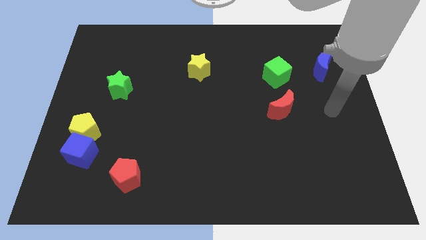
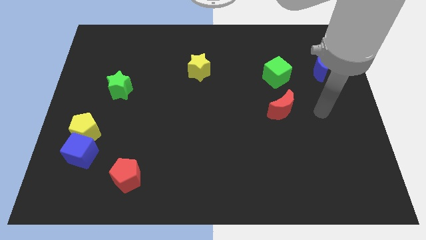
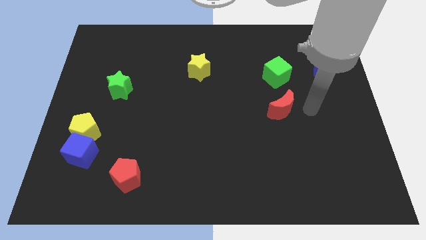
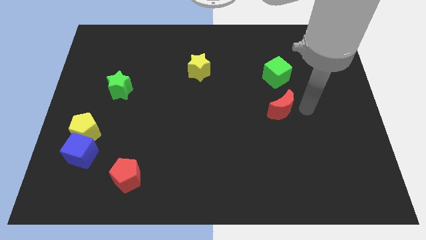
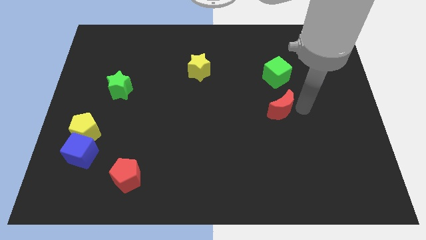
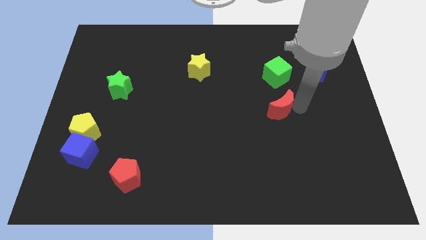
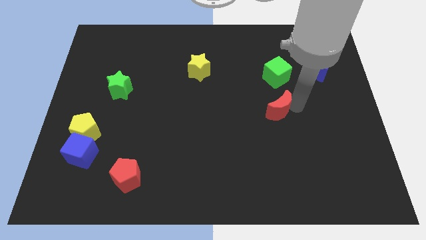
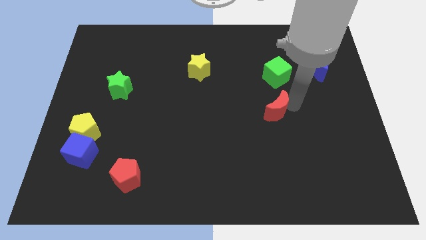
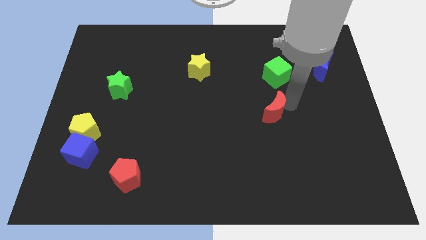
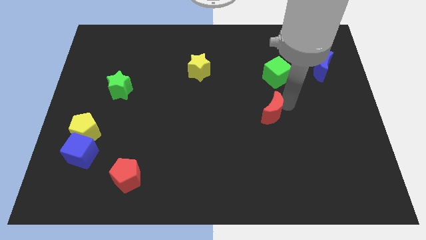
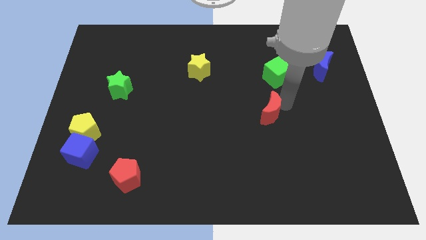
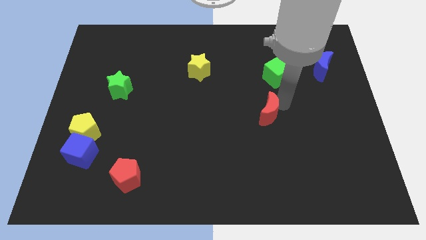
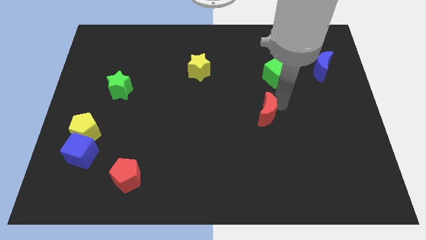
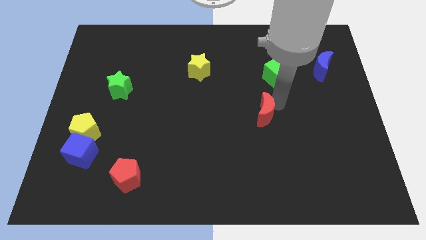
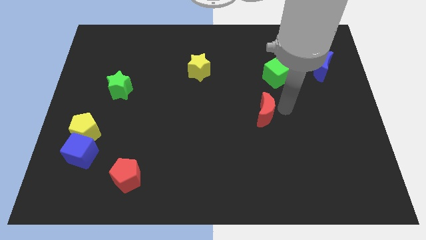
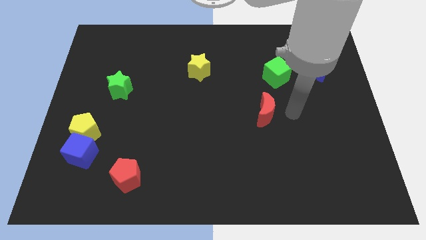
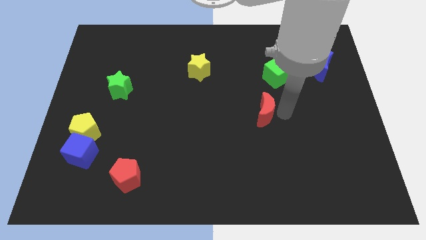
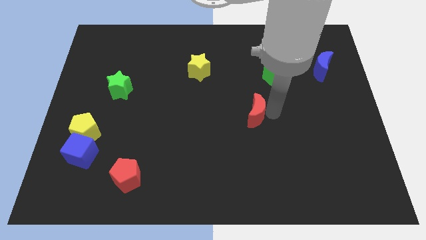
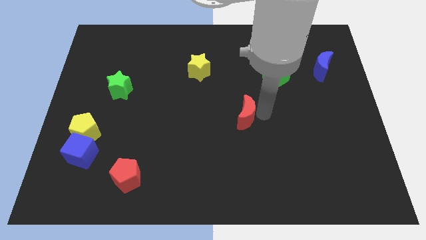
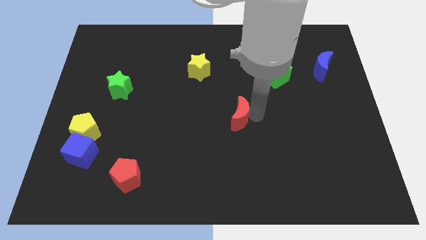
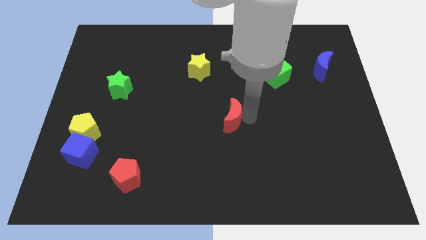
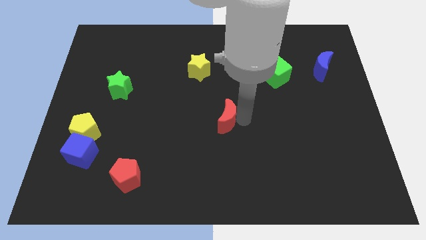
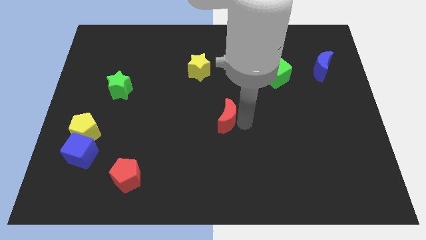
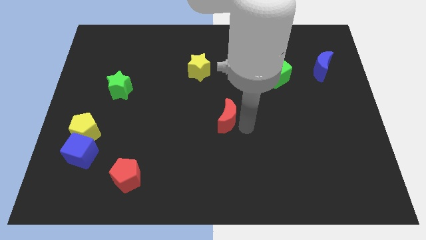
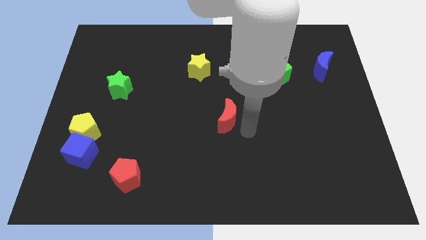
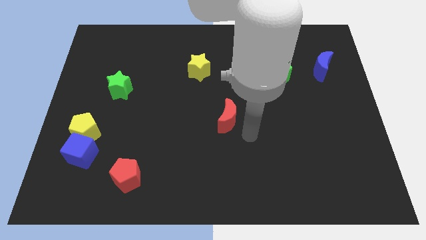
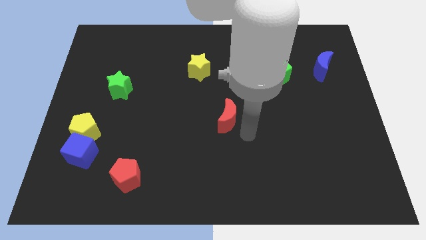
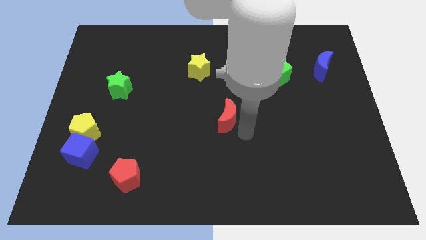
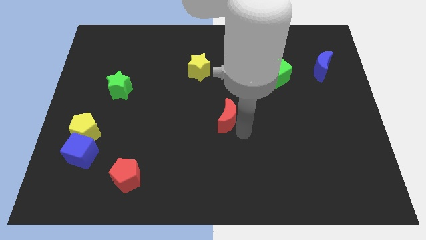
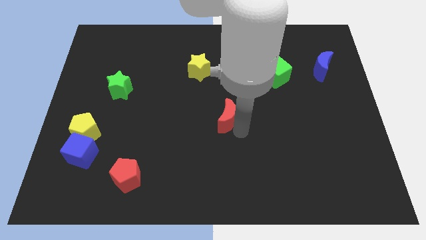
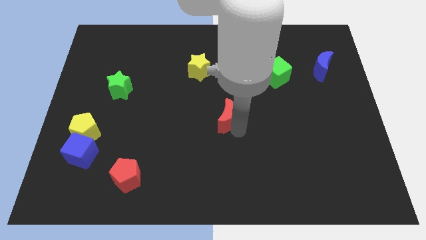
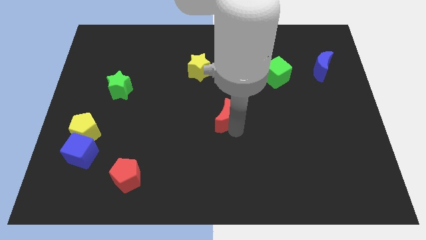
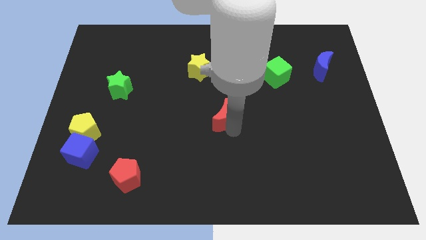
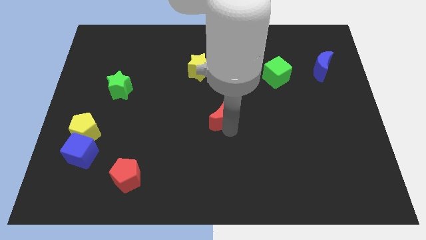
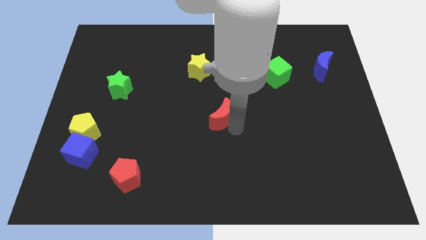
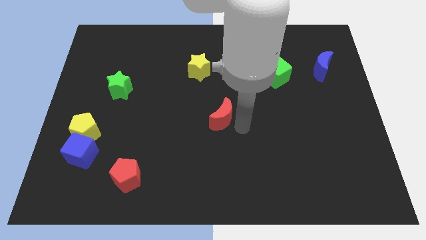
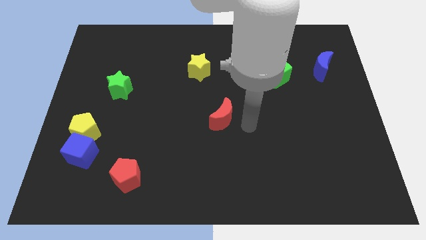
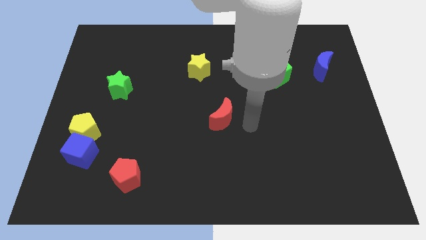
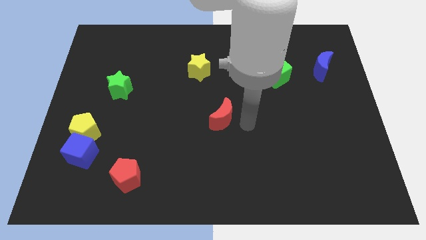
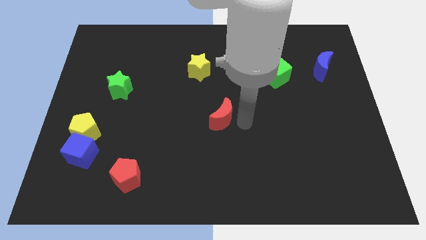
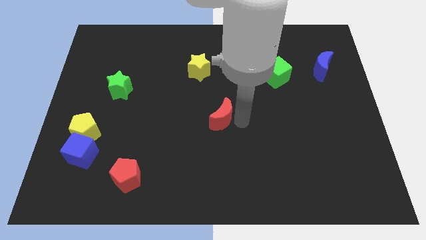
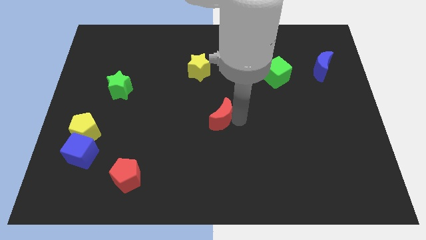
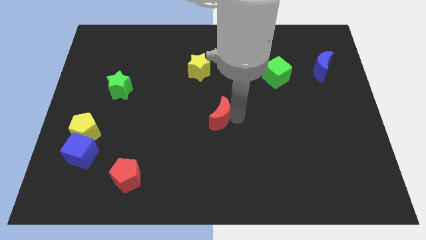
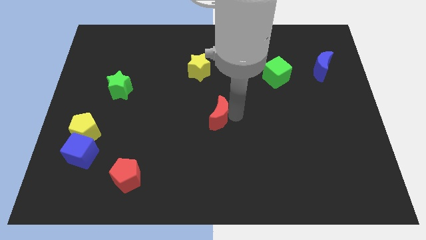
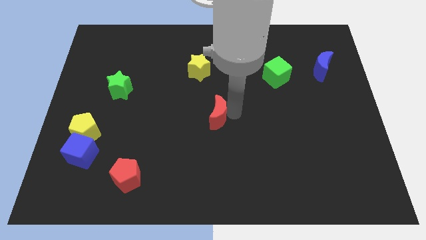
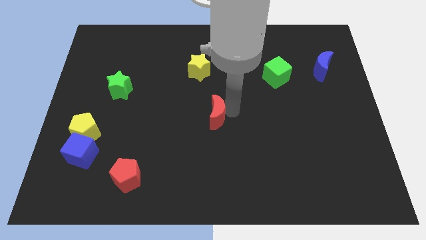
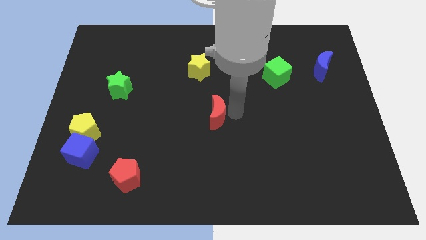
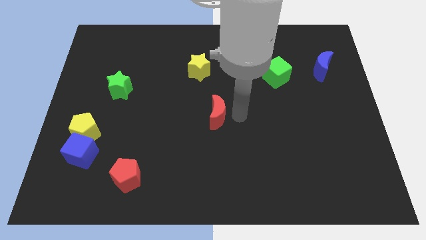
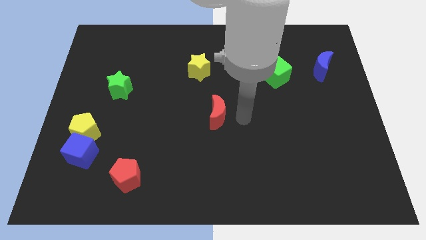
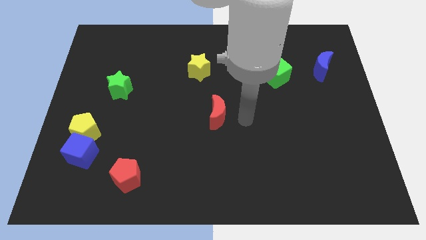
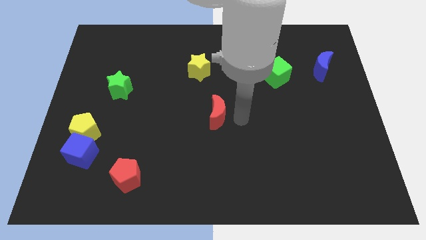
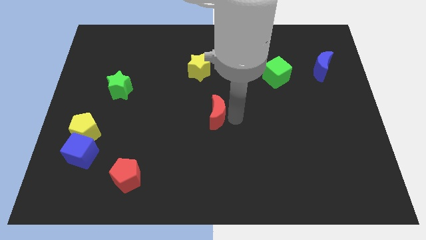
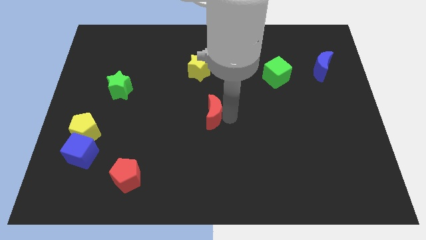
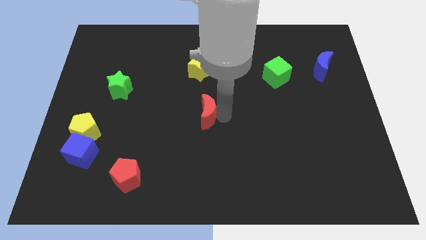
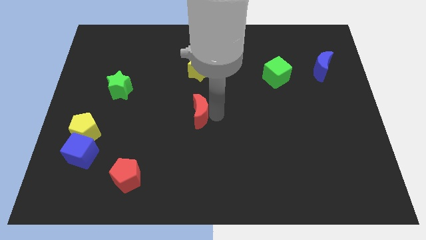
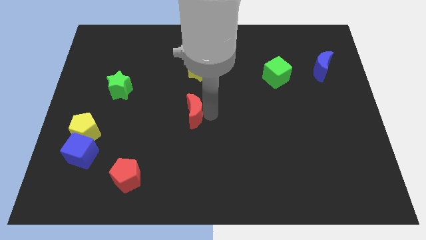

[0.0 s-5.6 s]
push the red moon to the left

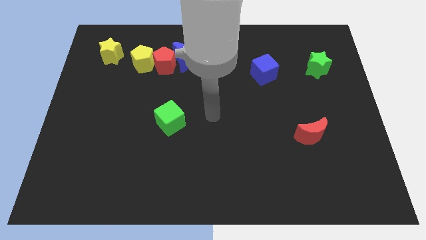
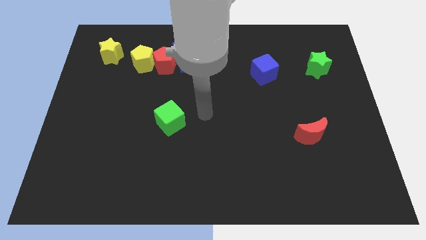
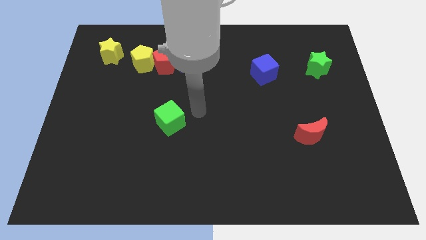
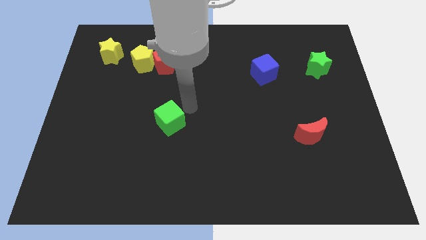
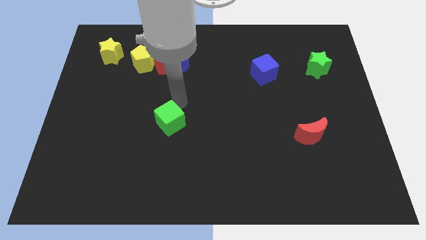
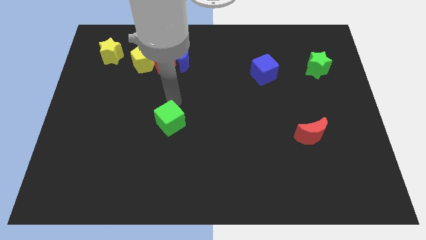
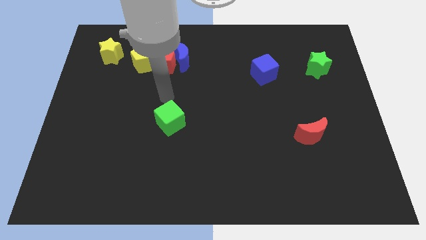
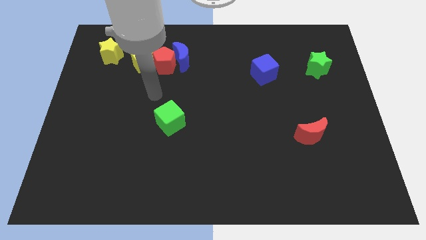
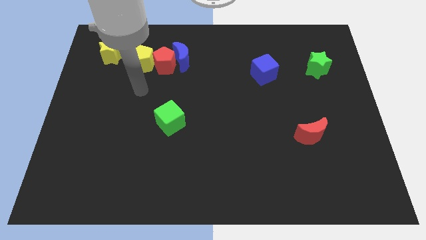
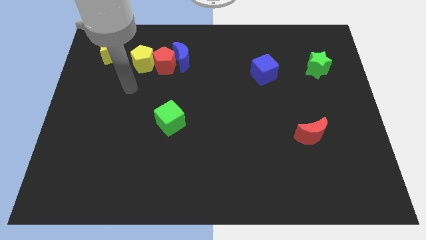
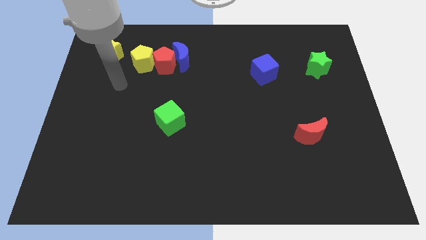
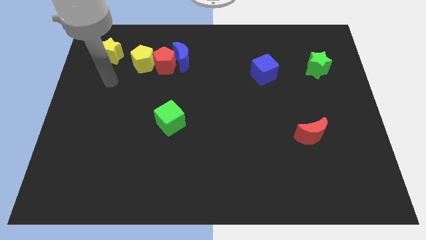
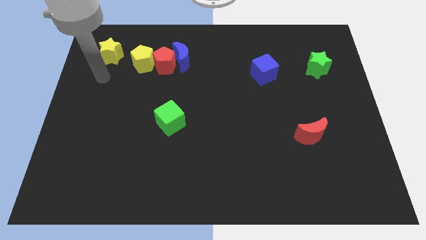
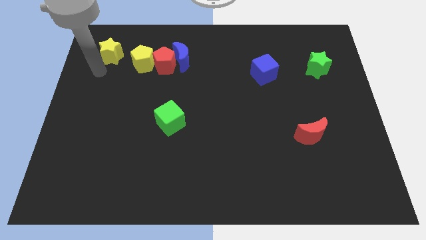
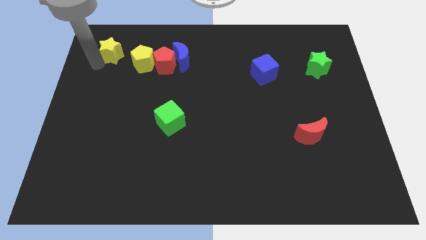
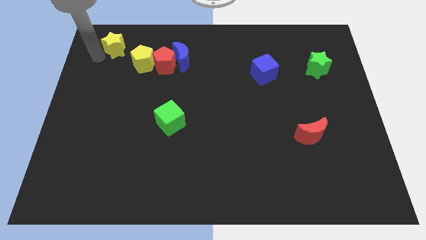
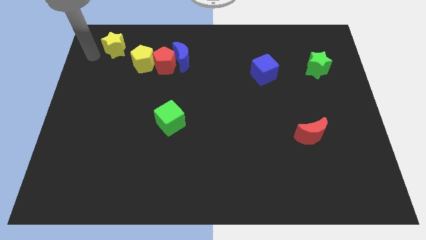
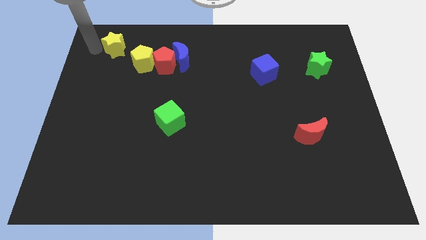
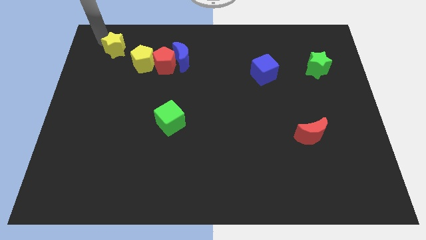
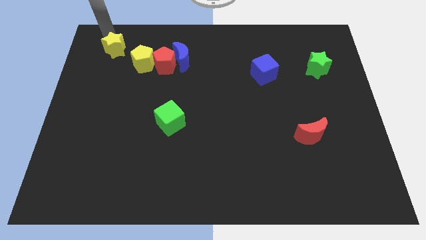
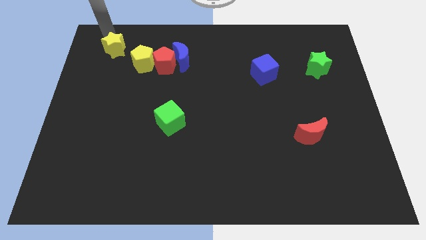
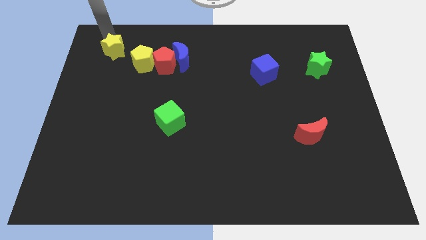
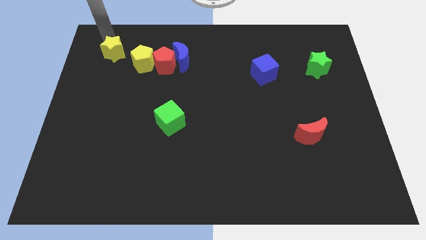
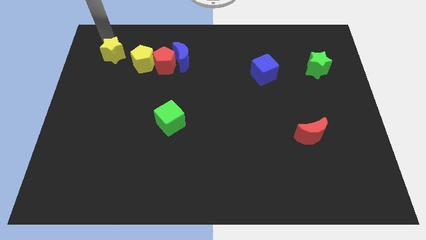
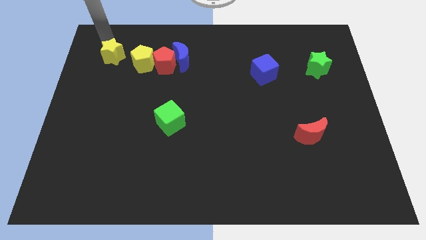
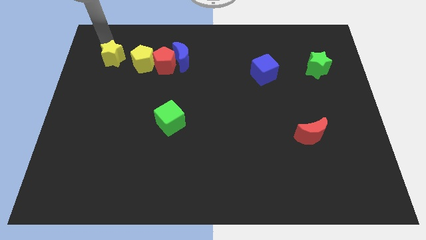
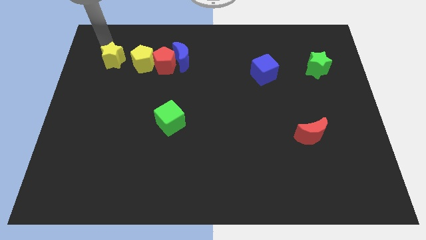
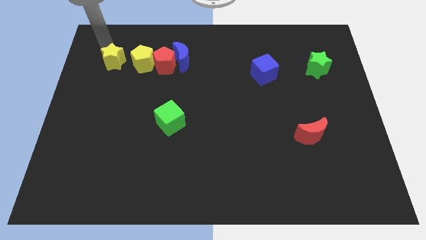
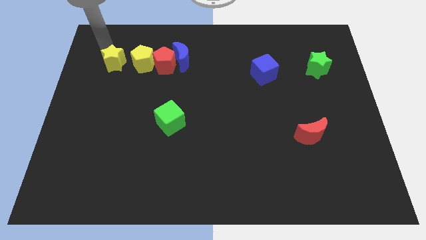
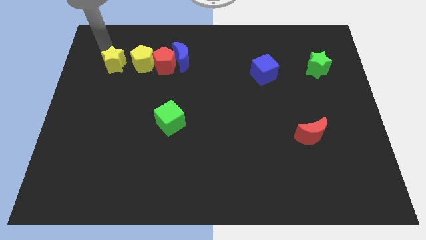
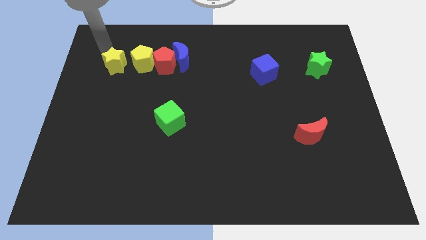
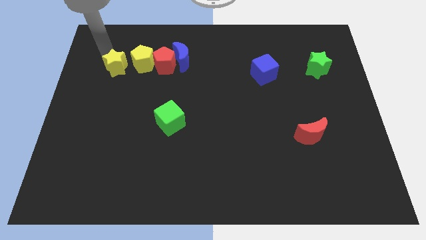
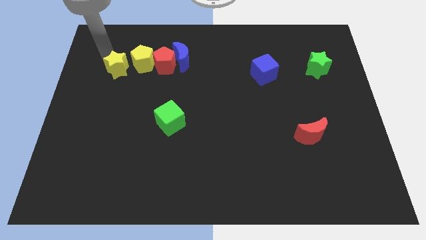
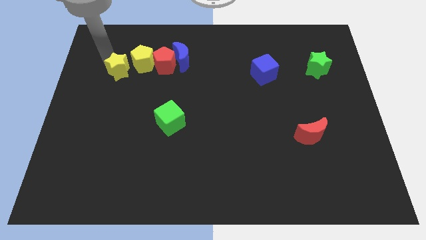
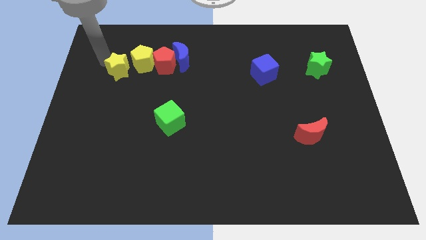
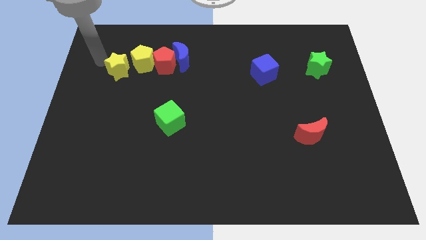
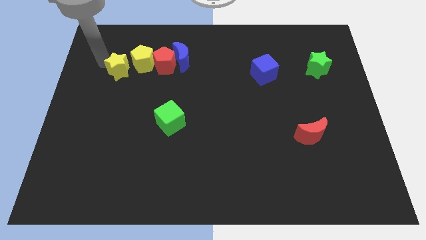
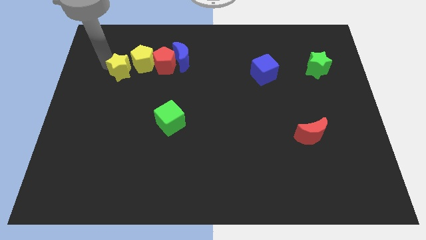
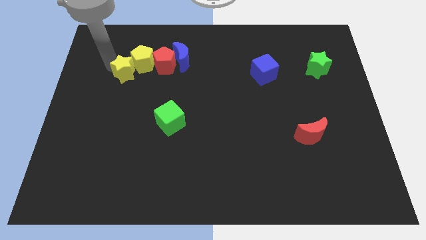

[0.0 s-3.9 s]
slightly slide the yellow star down and then right
